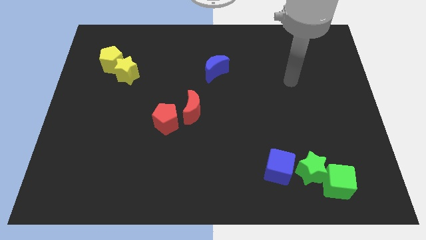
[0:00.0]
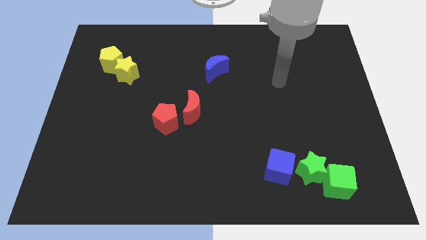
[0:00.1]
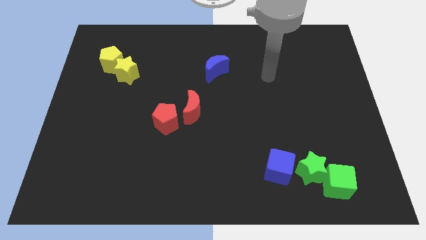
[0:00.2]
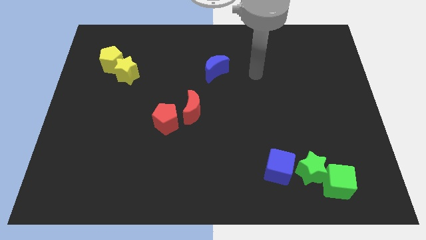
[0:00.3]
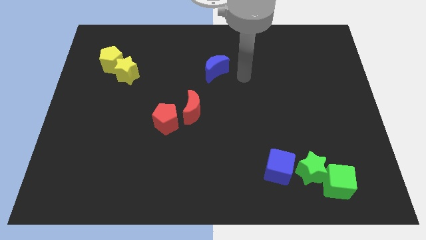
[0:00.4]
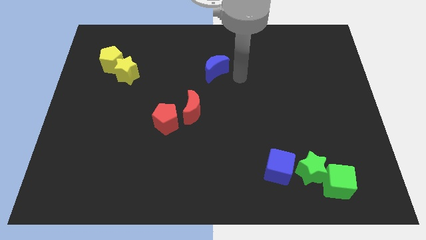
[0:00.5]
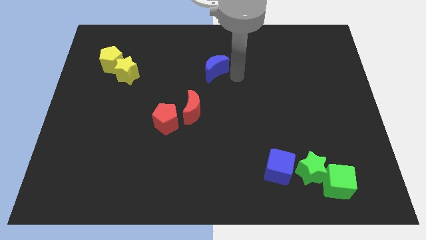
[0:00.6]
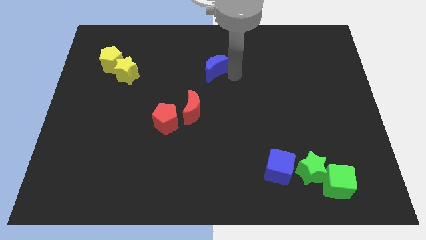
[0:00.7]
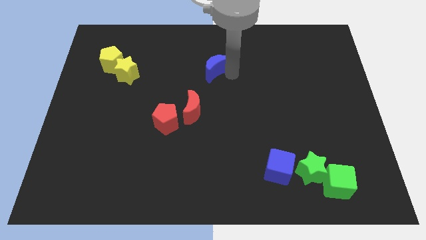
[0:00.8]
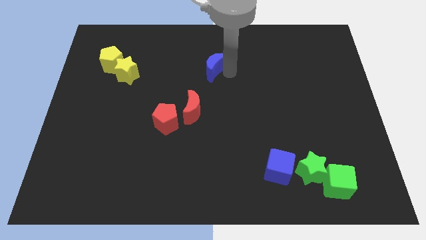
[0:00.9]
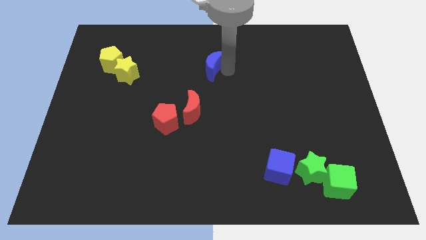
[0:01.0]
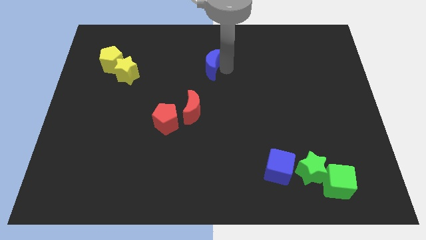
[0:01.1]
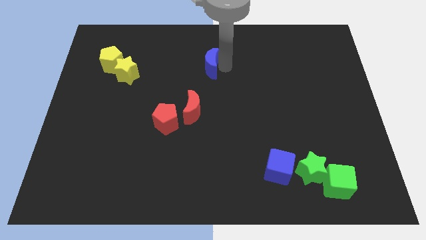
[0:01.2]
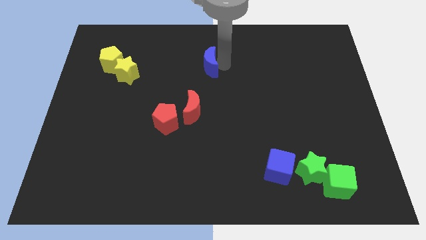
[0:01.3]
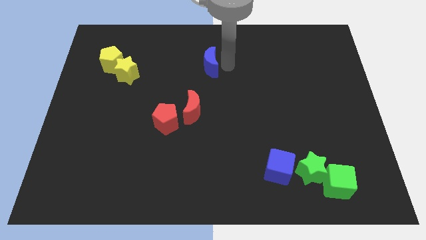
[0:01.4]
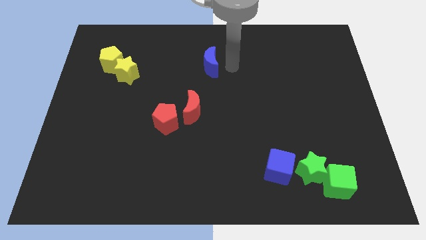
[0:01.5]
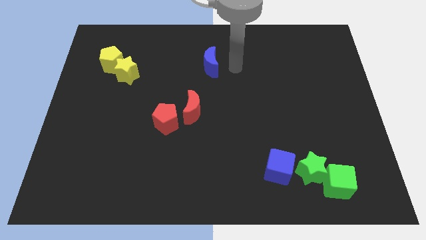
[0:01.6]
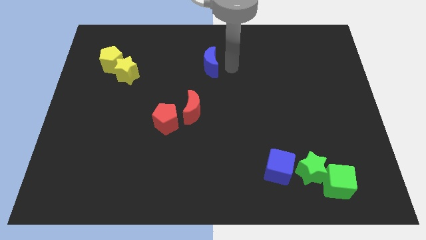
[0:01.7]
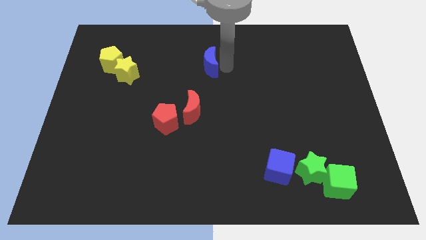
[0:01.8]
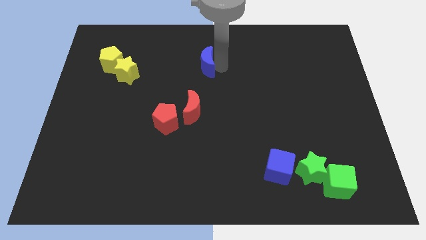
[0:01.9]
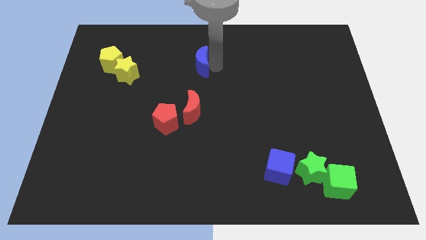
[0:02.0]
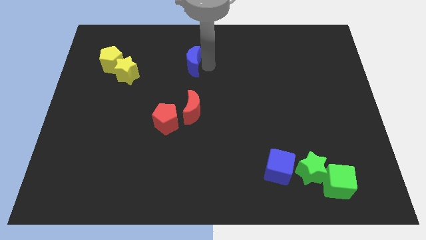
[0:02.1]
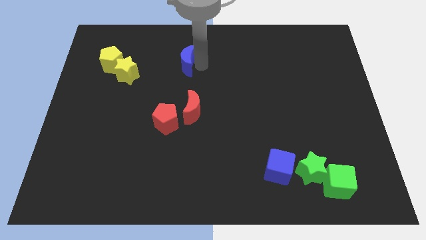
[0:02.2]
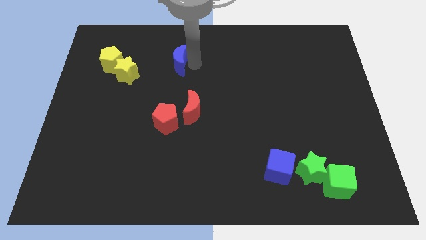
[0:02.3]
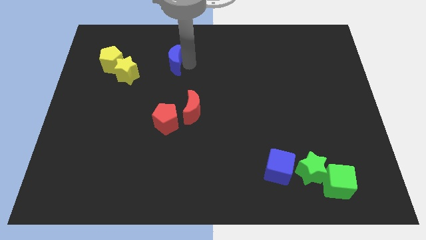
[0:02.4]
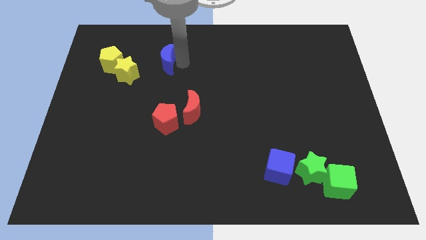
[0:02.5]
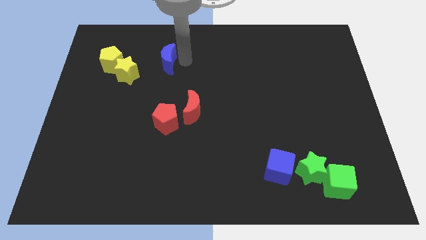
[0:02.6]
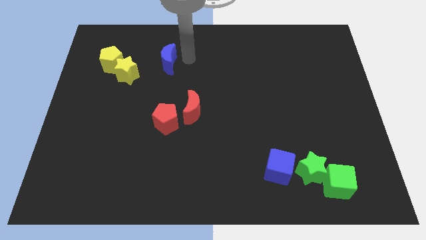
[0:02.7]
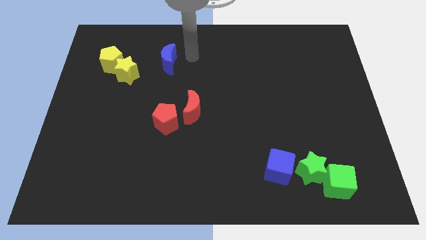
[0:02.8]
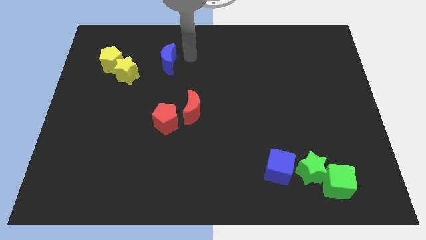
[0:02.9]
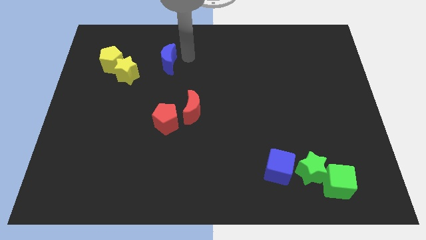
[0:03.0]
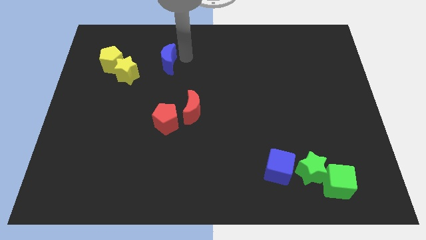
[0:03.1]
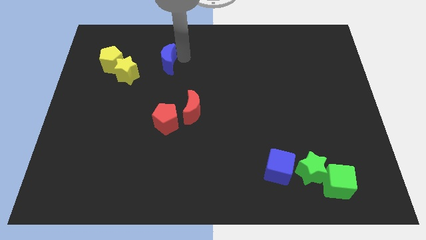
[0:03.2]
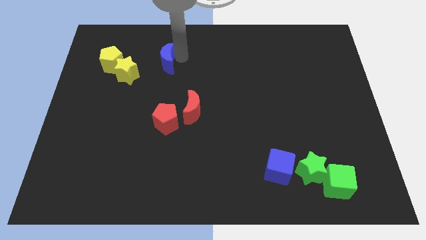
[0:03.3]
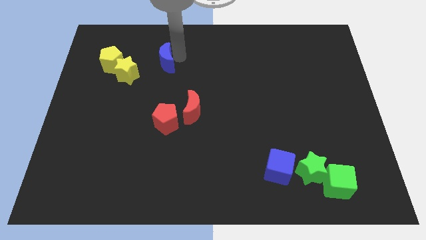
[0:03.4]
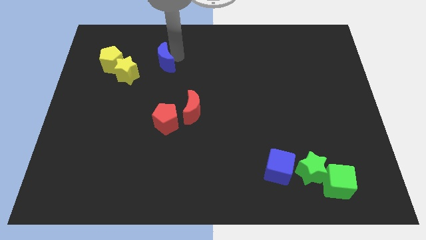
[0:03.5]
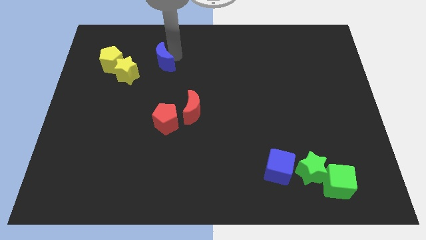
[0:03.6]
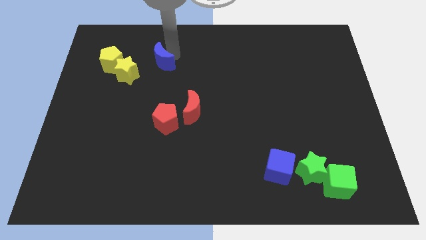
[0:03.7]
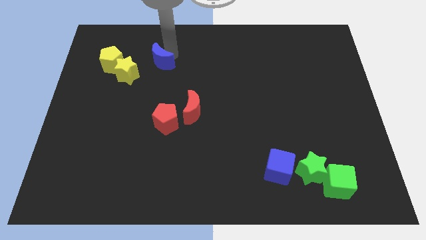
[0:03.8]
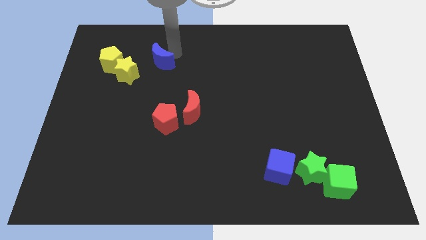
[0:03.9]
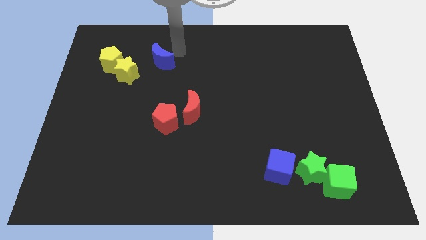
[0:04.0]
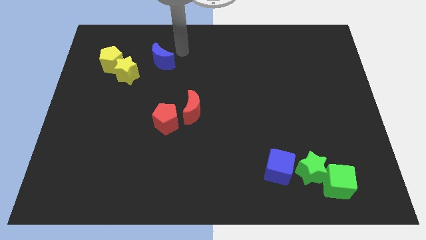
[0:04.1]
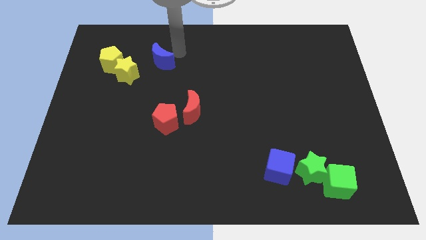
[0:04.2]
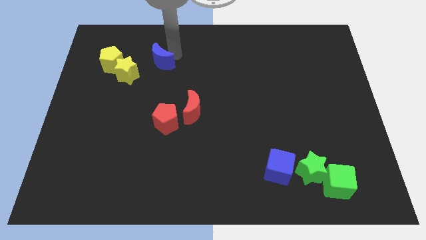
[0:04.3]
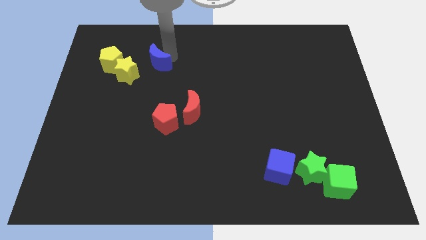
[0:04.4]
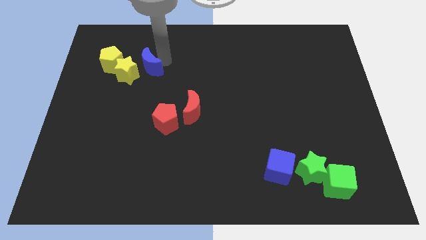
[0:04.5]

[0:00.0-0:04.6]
push the blue moon towards the yellow star

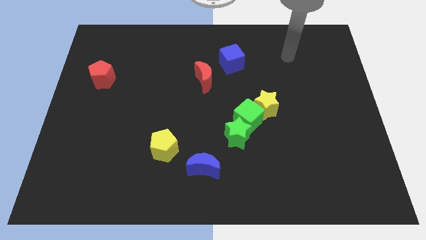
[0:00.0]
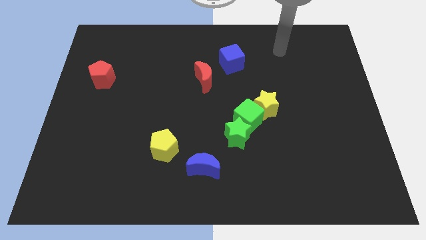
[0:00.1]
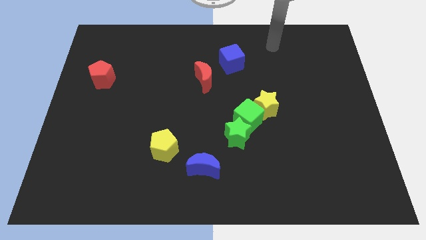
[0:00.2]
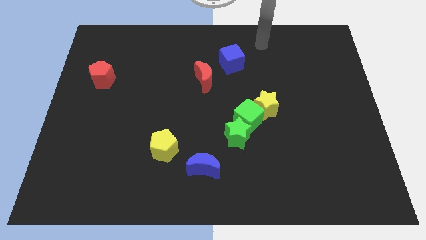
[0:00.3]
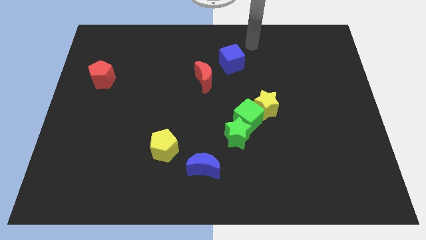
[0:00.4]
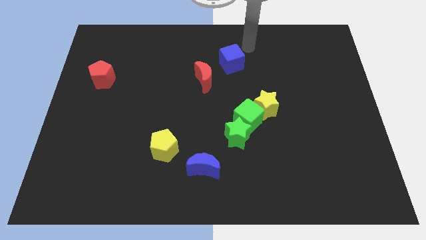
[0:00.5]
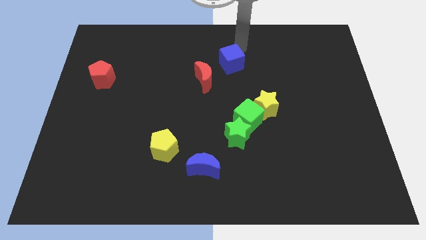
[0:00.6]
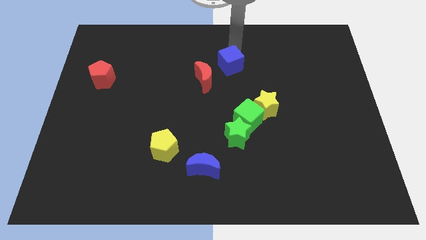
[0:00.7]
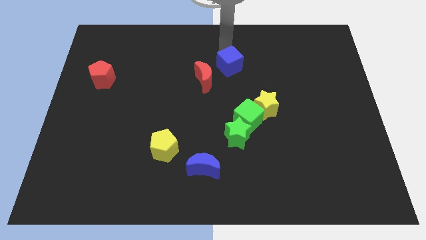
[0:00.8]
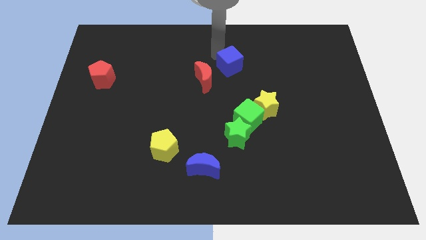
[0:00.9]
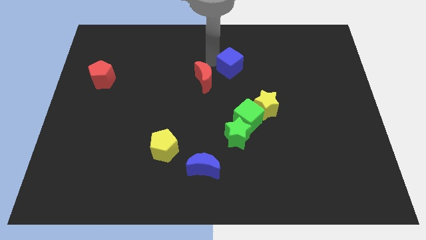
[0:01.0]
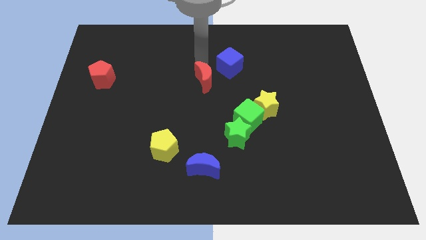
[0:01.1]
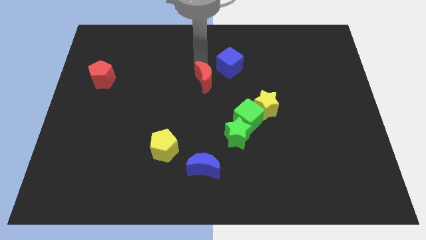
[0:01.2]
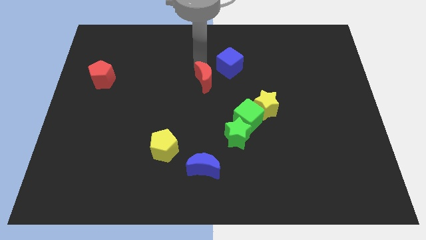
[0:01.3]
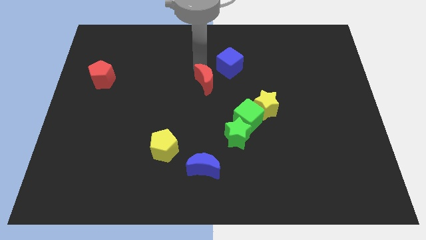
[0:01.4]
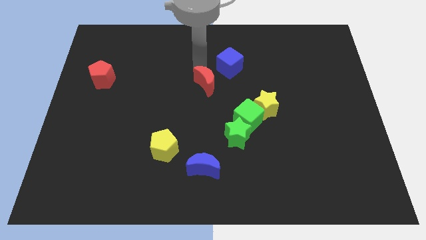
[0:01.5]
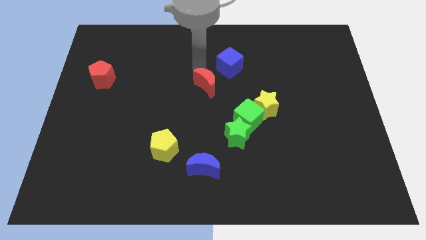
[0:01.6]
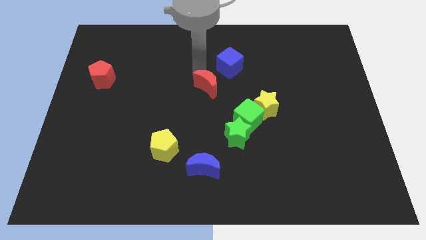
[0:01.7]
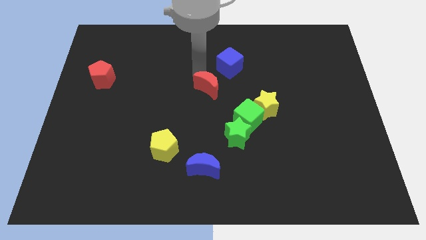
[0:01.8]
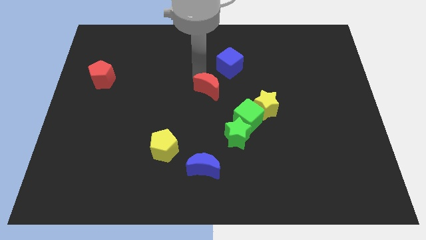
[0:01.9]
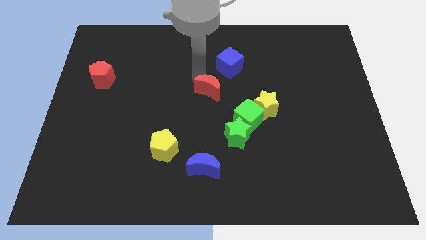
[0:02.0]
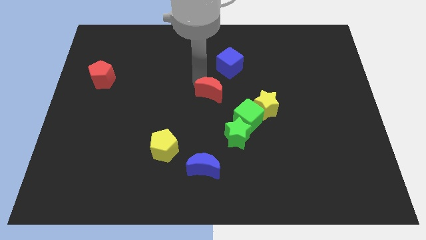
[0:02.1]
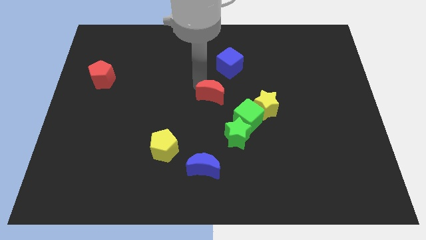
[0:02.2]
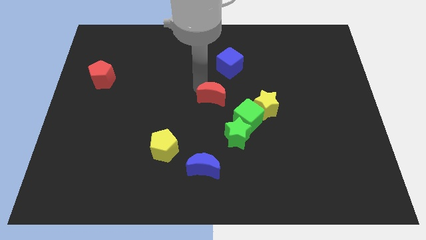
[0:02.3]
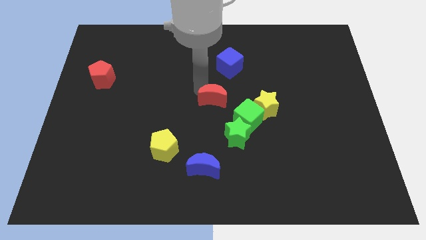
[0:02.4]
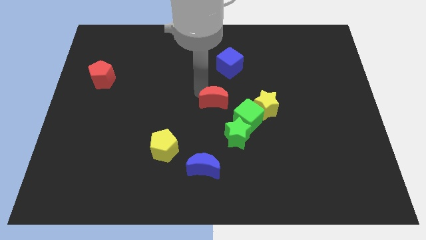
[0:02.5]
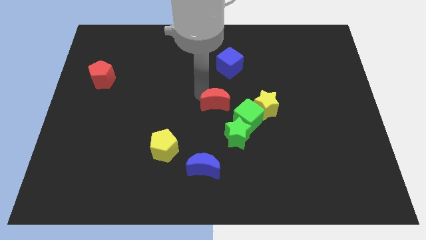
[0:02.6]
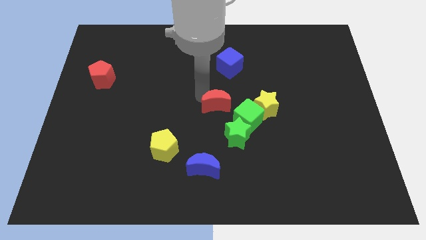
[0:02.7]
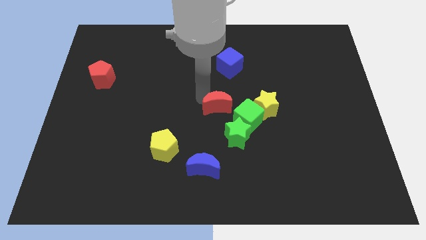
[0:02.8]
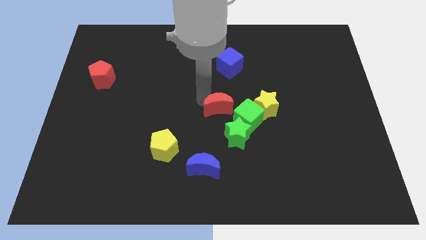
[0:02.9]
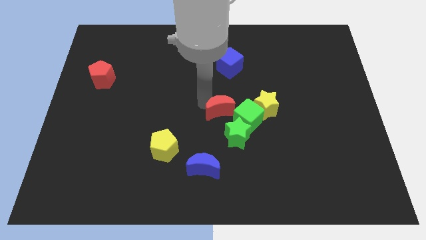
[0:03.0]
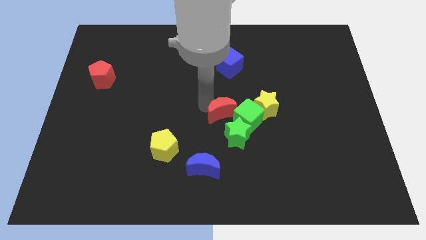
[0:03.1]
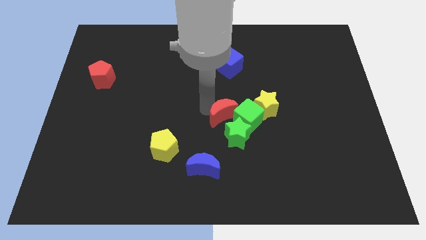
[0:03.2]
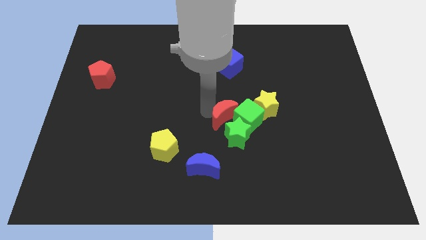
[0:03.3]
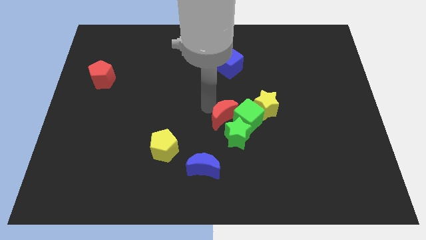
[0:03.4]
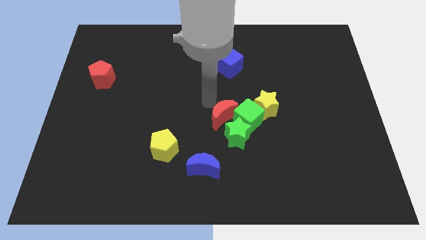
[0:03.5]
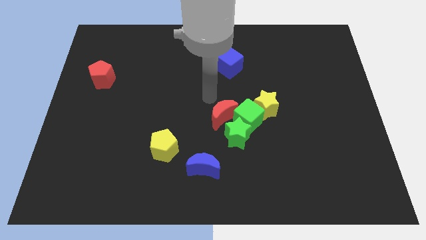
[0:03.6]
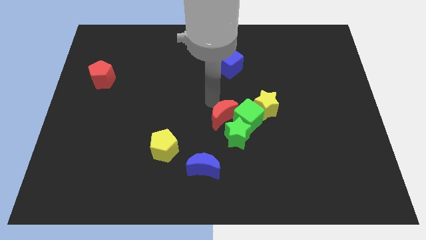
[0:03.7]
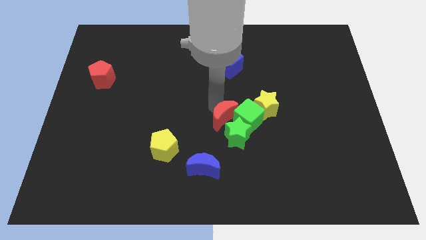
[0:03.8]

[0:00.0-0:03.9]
put the red moon to the green star
